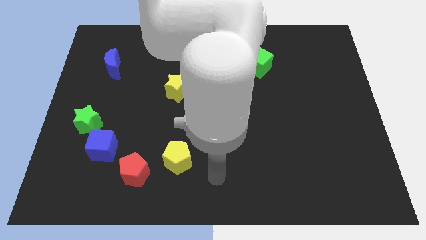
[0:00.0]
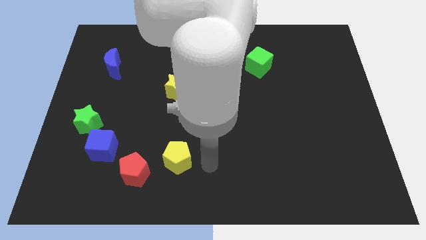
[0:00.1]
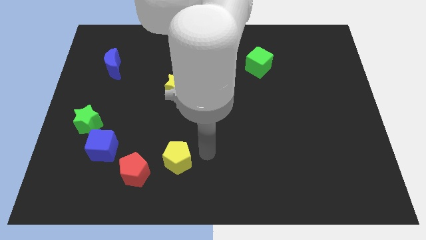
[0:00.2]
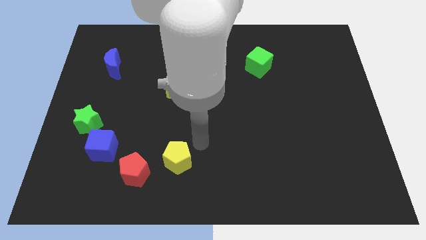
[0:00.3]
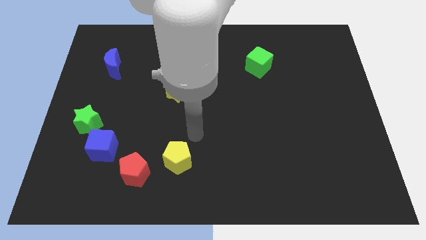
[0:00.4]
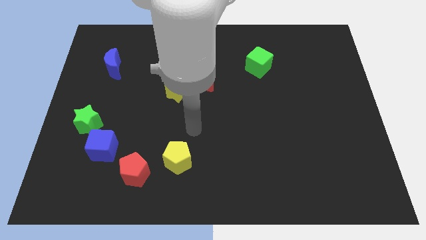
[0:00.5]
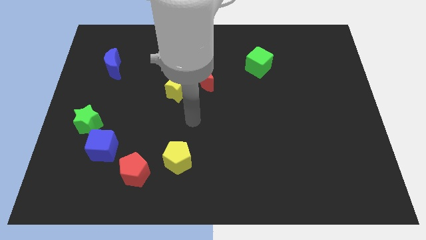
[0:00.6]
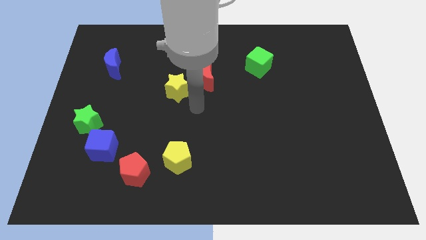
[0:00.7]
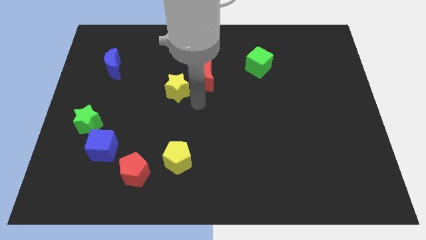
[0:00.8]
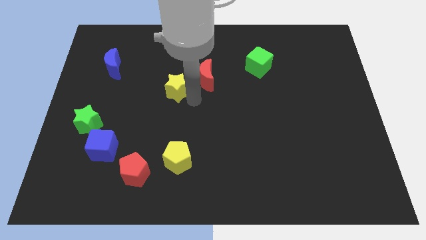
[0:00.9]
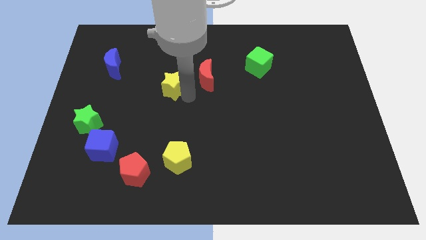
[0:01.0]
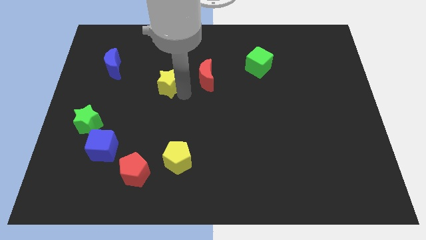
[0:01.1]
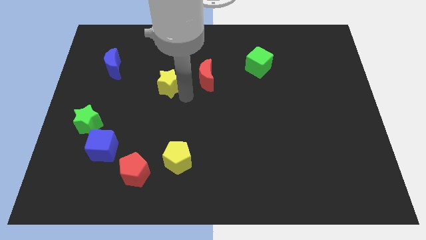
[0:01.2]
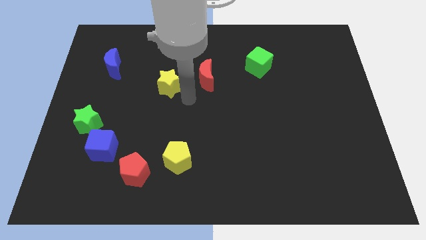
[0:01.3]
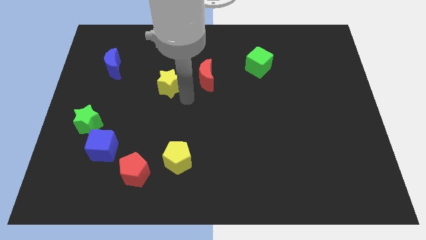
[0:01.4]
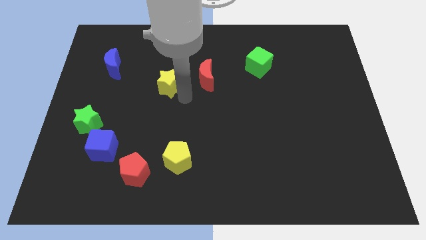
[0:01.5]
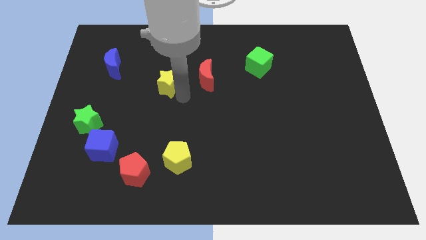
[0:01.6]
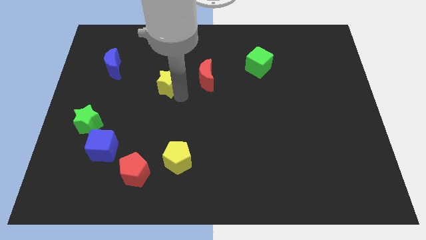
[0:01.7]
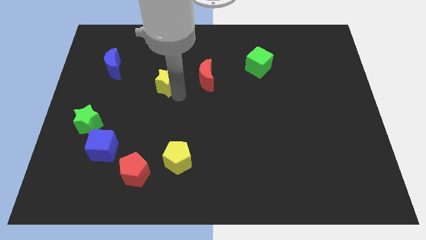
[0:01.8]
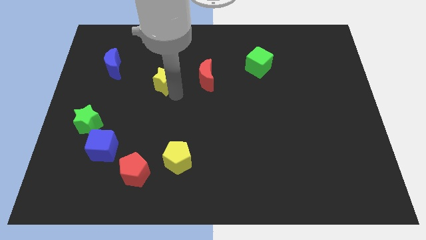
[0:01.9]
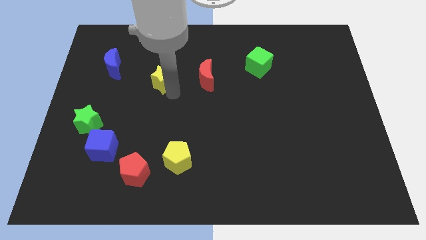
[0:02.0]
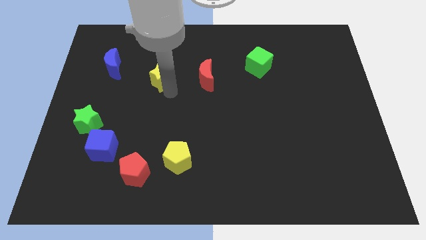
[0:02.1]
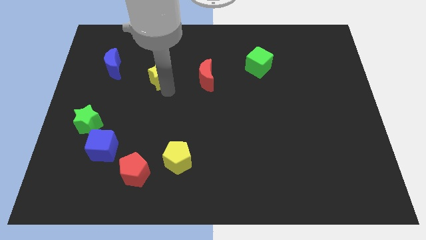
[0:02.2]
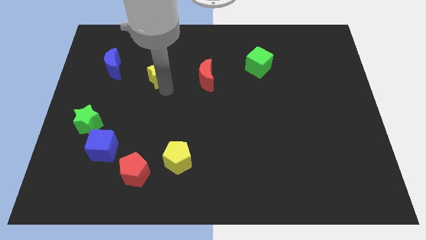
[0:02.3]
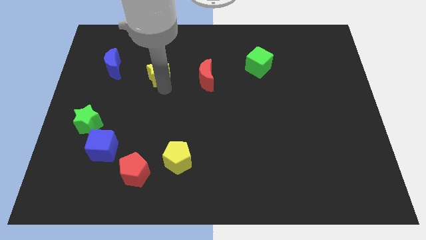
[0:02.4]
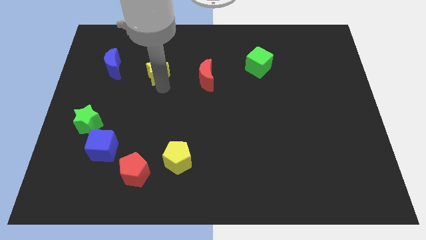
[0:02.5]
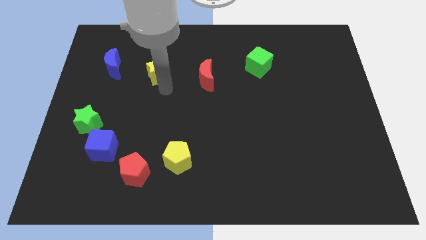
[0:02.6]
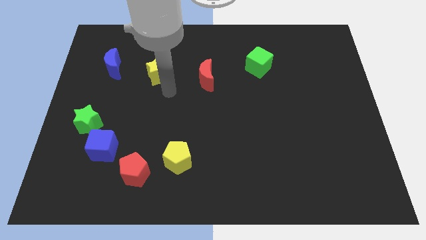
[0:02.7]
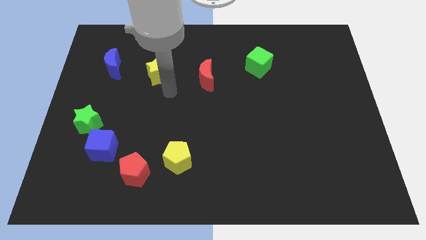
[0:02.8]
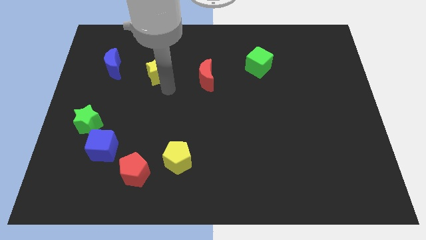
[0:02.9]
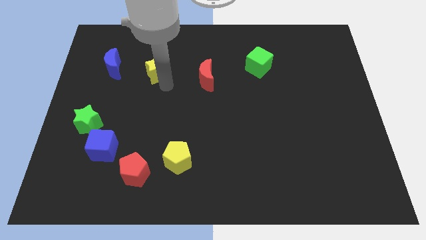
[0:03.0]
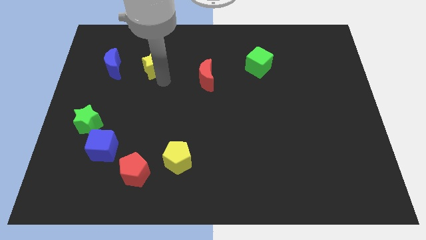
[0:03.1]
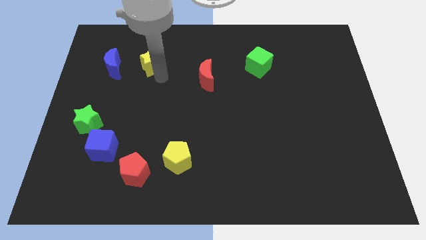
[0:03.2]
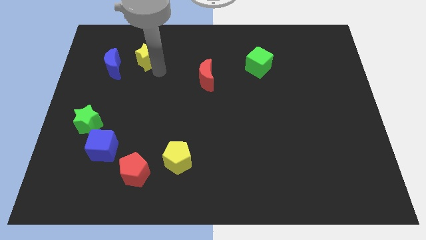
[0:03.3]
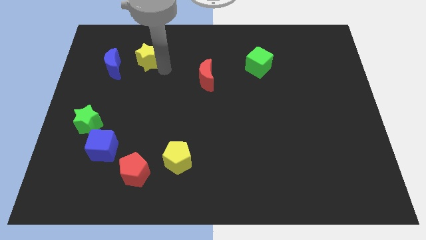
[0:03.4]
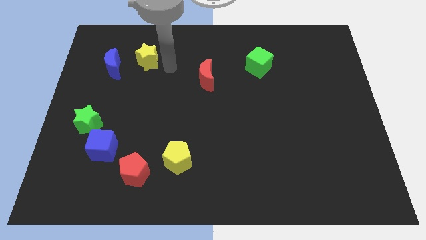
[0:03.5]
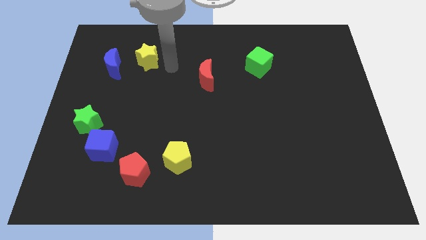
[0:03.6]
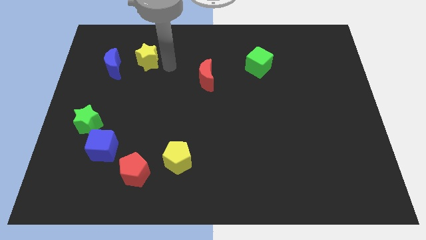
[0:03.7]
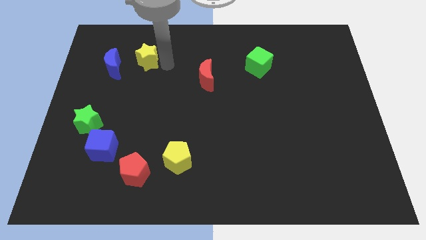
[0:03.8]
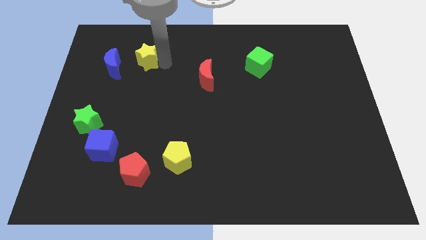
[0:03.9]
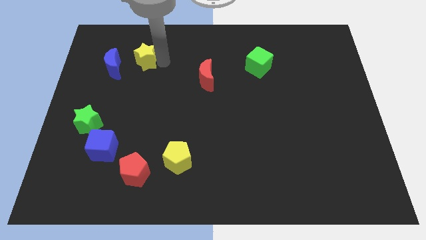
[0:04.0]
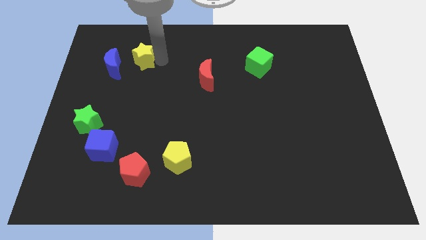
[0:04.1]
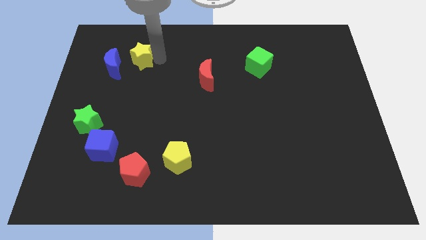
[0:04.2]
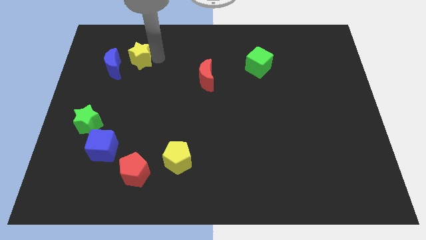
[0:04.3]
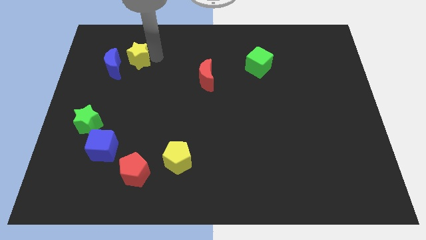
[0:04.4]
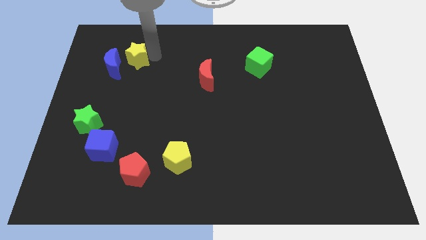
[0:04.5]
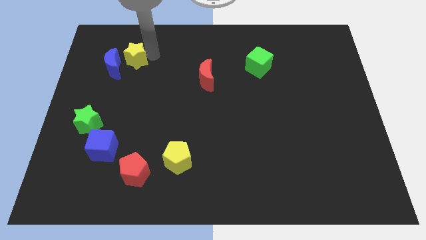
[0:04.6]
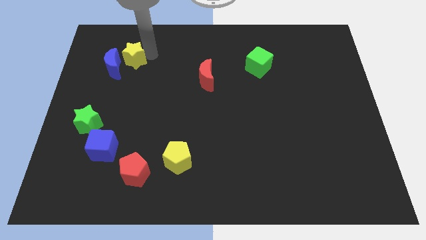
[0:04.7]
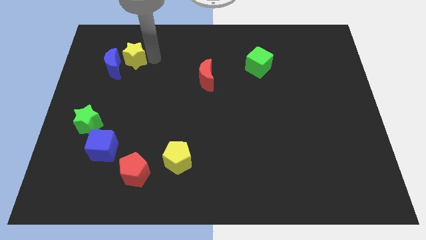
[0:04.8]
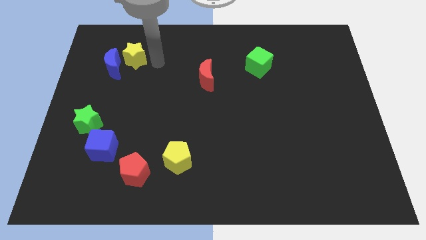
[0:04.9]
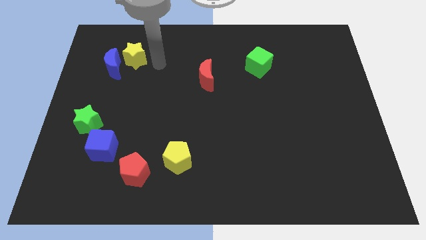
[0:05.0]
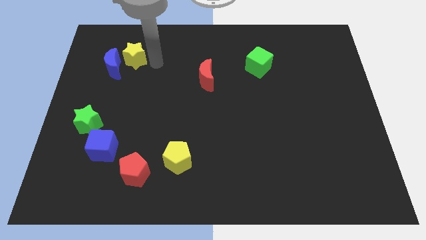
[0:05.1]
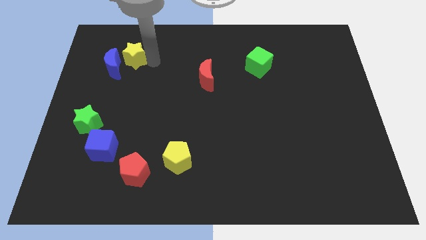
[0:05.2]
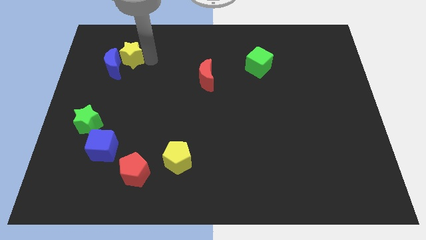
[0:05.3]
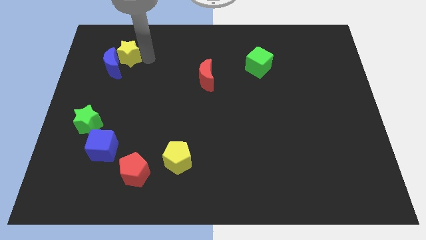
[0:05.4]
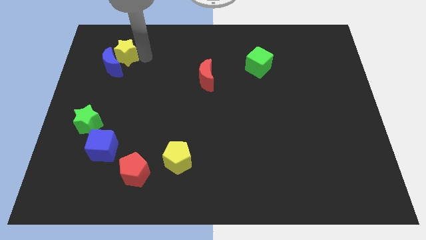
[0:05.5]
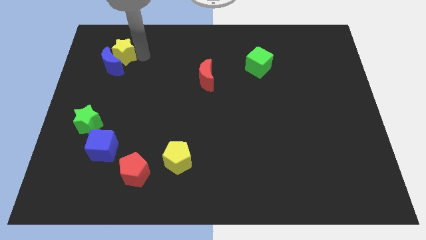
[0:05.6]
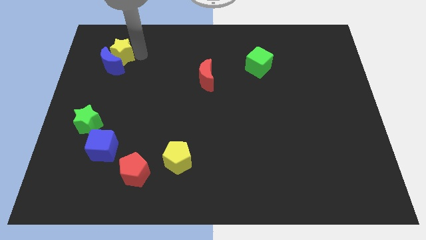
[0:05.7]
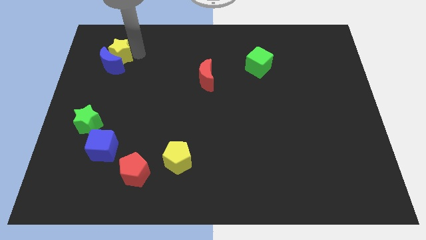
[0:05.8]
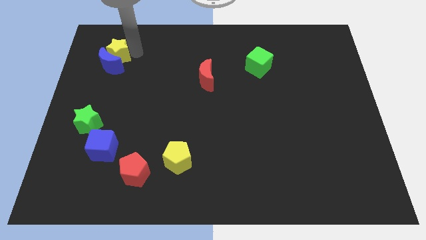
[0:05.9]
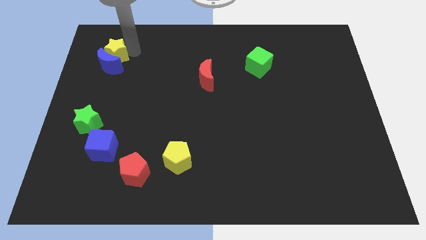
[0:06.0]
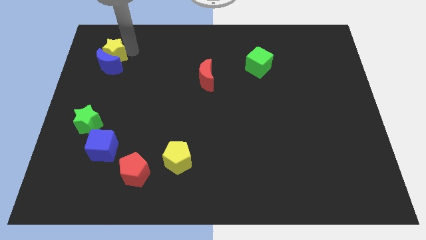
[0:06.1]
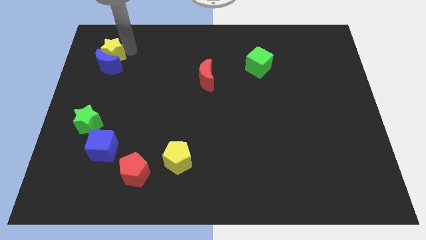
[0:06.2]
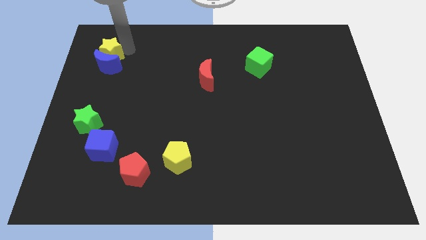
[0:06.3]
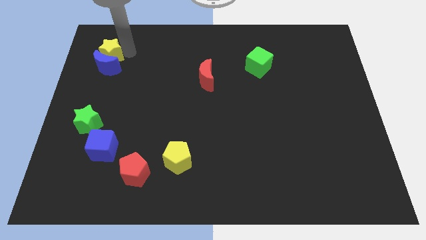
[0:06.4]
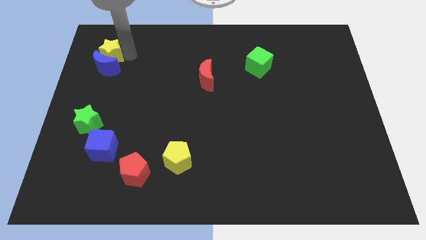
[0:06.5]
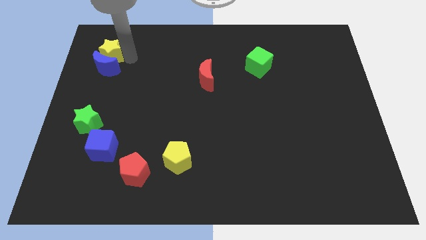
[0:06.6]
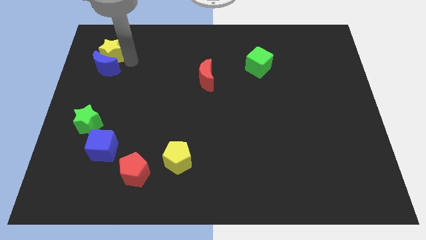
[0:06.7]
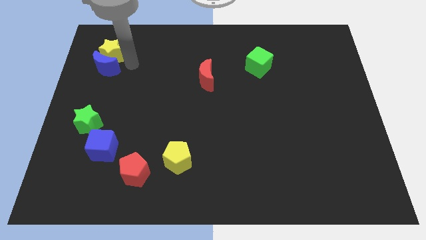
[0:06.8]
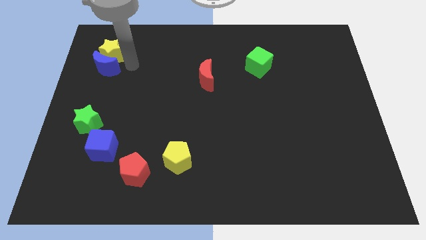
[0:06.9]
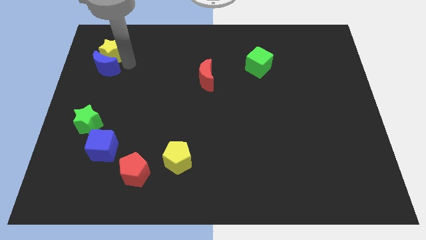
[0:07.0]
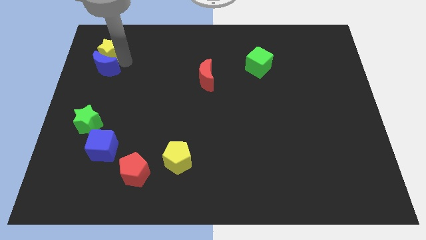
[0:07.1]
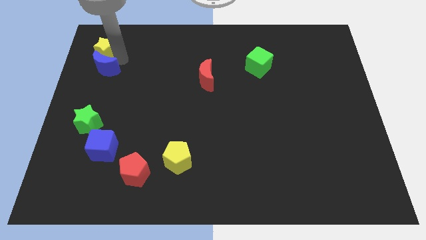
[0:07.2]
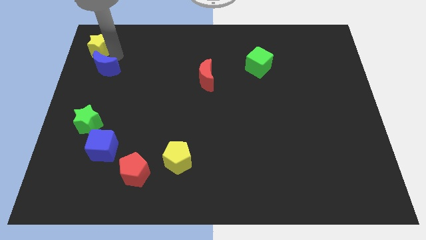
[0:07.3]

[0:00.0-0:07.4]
push the yellow star to the upper left corner

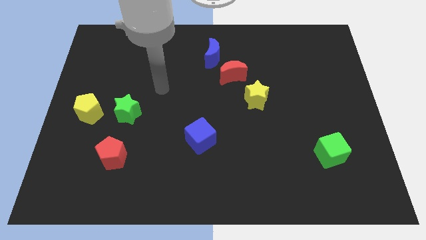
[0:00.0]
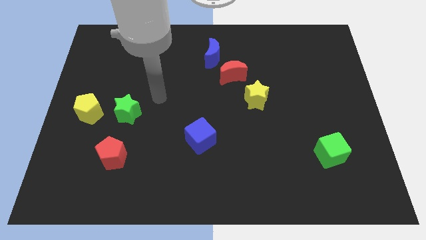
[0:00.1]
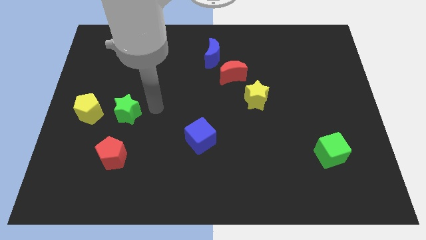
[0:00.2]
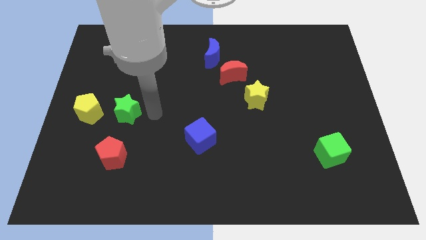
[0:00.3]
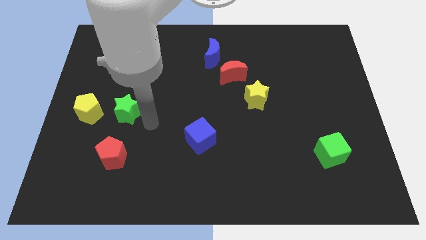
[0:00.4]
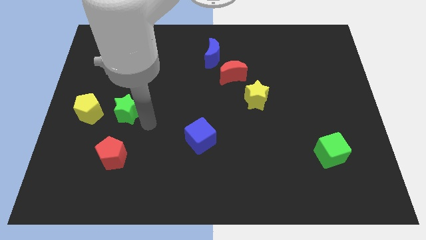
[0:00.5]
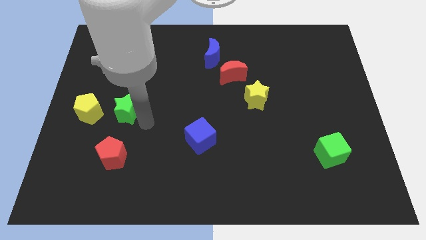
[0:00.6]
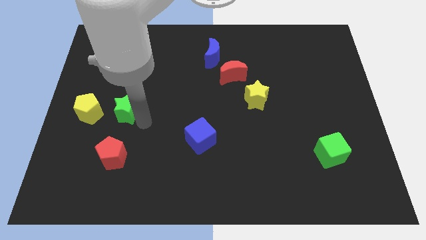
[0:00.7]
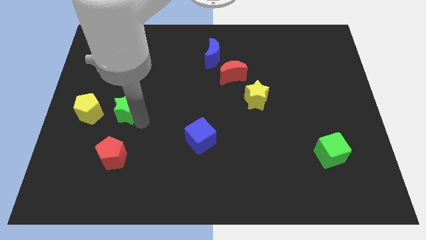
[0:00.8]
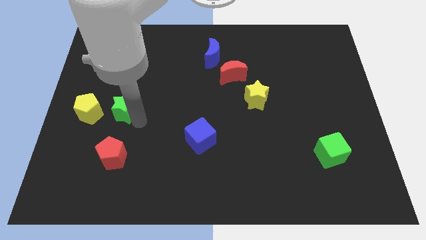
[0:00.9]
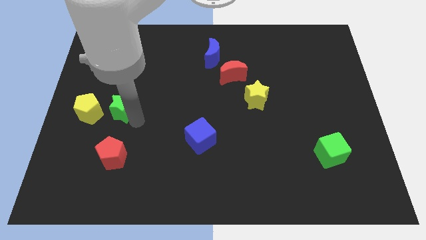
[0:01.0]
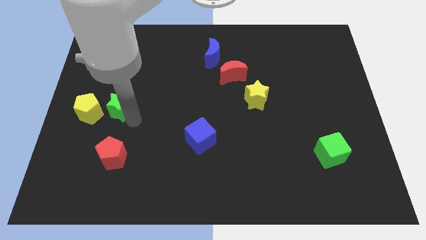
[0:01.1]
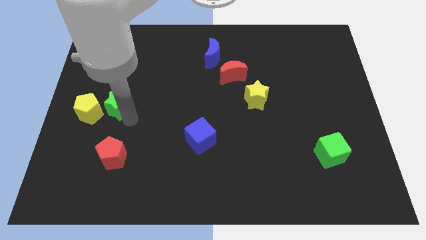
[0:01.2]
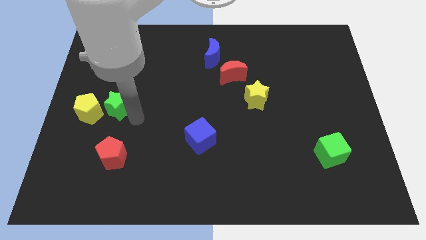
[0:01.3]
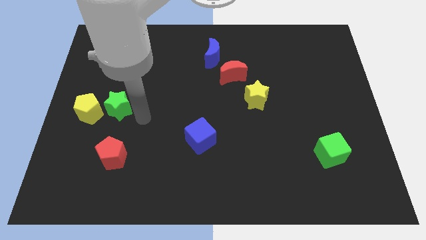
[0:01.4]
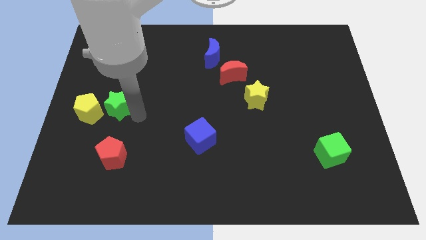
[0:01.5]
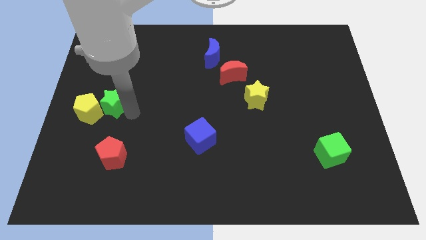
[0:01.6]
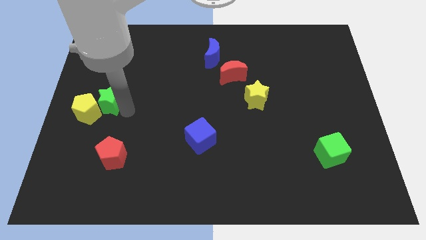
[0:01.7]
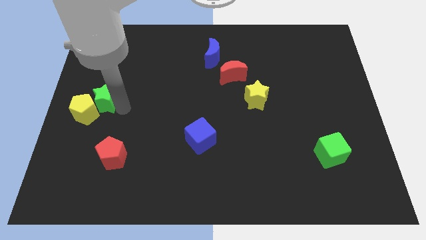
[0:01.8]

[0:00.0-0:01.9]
slide the green star to the left side
